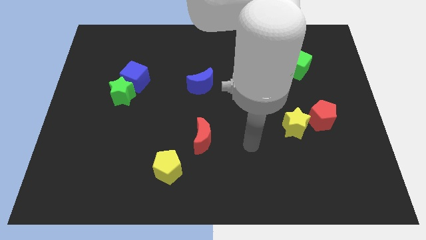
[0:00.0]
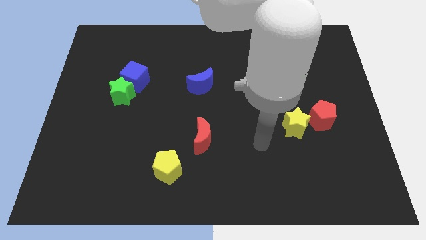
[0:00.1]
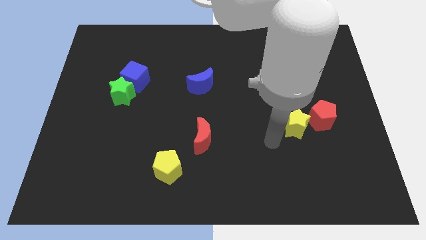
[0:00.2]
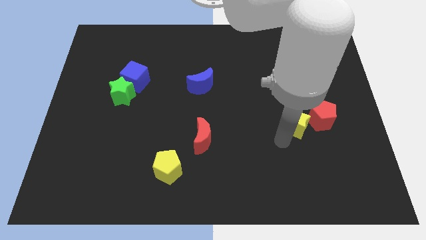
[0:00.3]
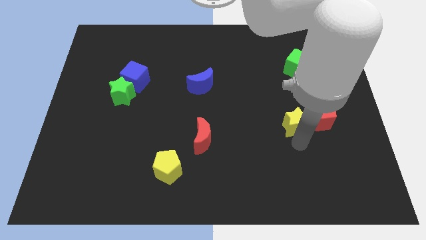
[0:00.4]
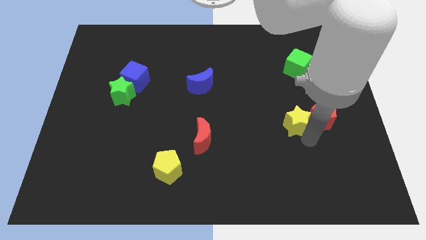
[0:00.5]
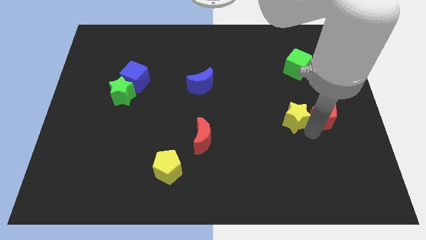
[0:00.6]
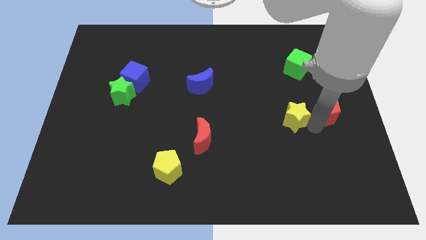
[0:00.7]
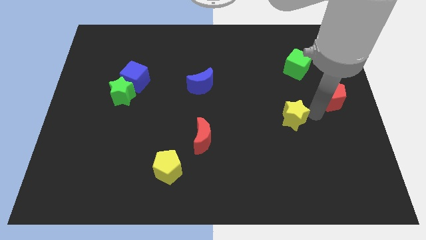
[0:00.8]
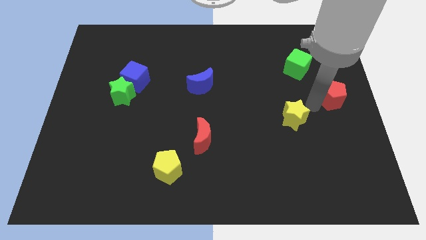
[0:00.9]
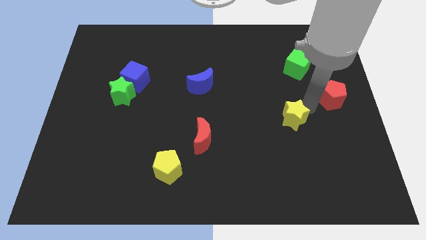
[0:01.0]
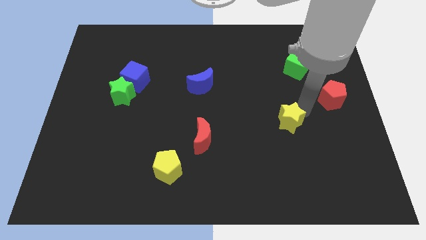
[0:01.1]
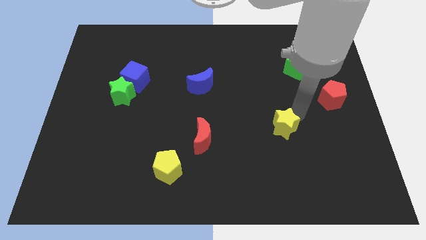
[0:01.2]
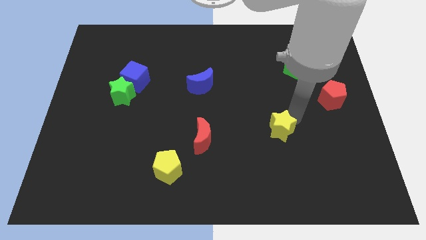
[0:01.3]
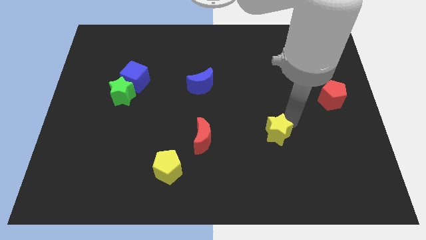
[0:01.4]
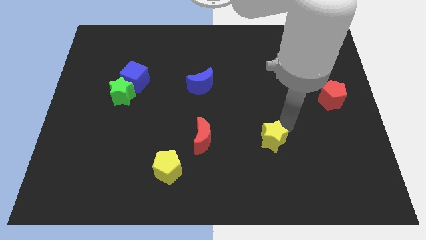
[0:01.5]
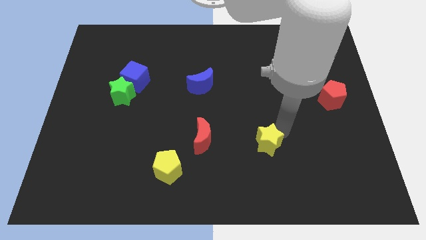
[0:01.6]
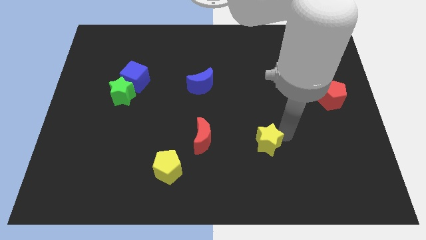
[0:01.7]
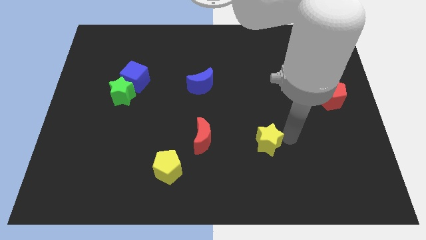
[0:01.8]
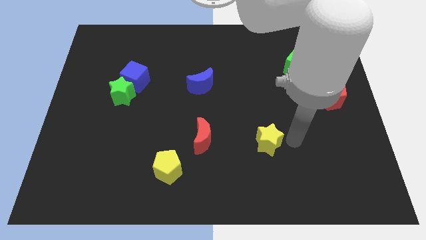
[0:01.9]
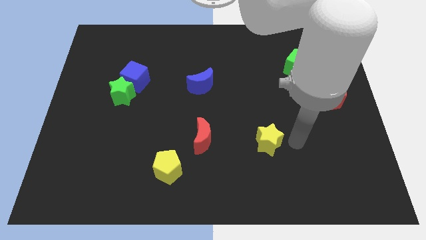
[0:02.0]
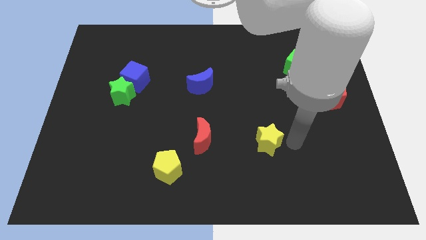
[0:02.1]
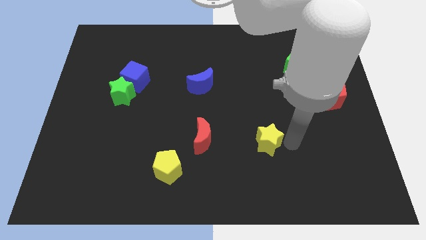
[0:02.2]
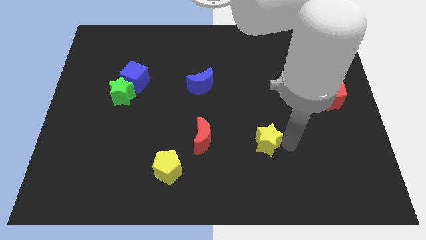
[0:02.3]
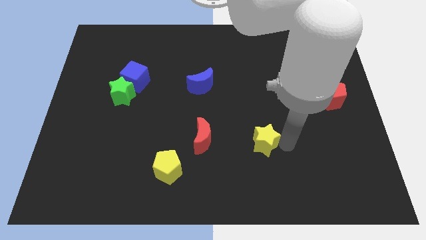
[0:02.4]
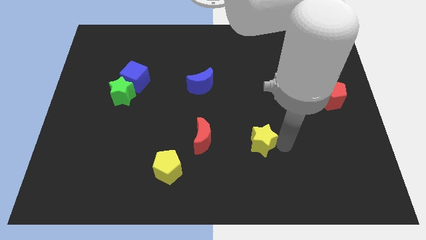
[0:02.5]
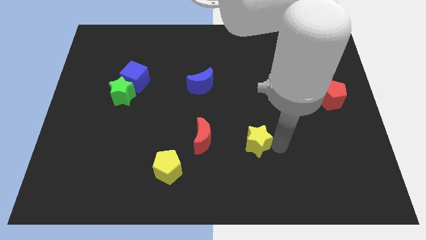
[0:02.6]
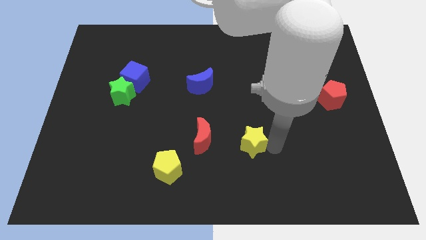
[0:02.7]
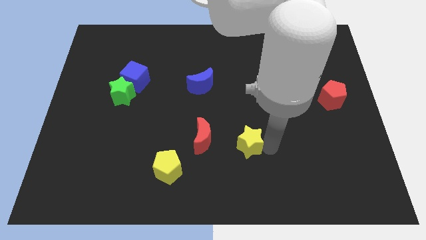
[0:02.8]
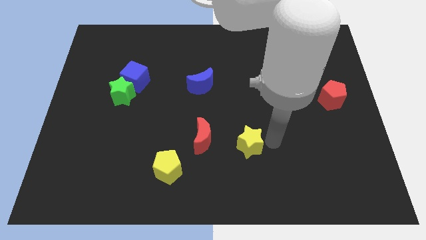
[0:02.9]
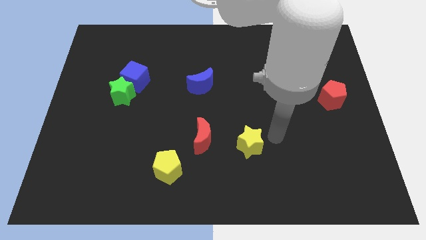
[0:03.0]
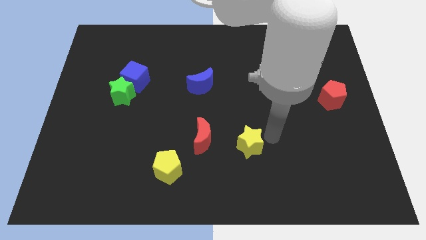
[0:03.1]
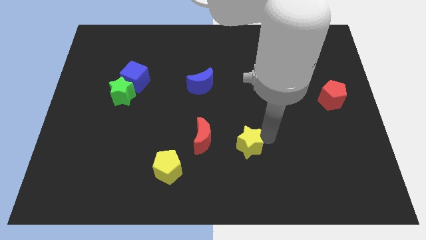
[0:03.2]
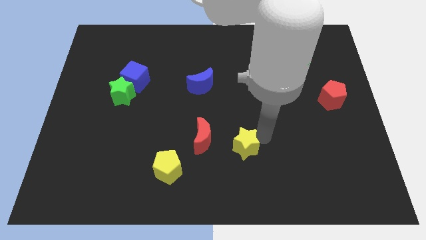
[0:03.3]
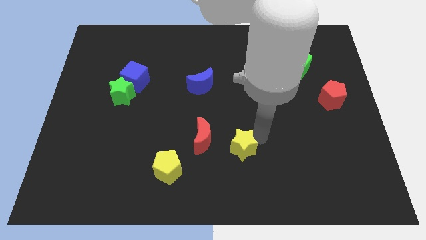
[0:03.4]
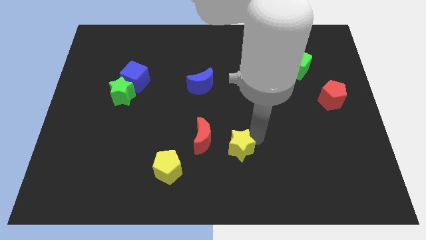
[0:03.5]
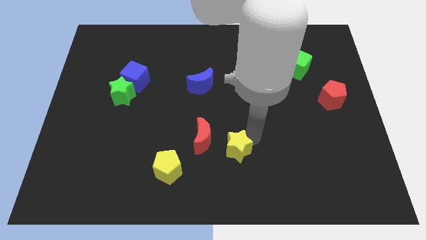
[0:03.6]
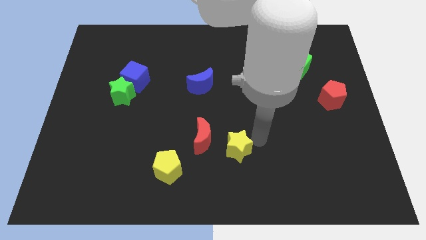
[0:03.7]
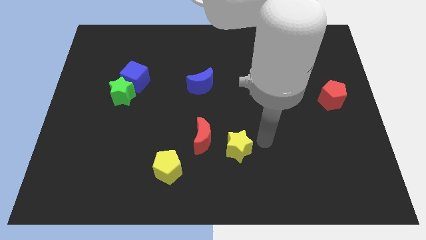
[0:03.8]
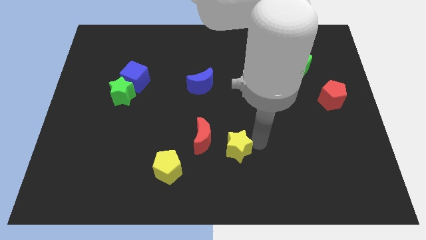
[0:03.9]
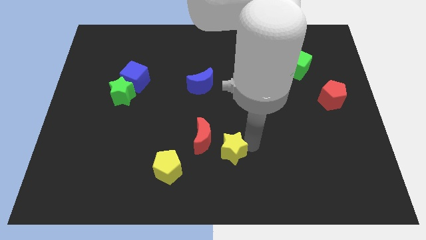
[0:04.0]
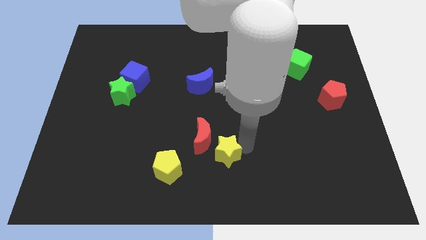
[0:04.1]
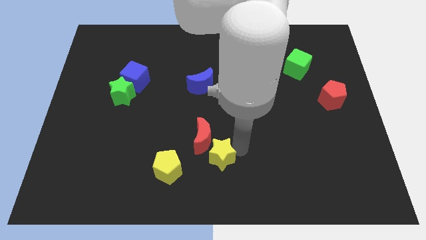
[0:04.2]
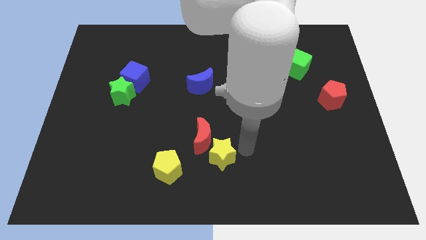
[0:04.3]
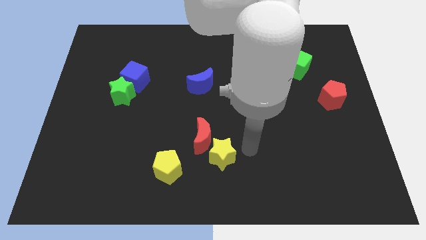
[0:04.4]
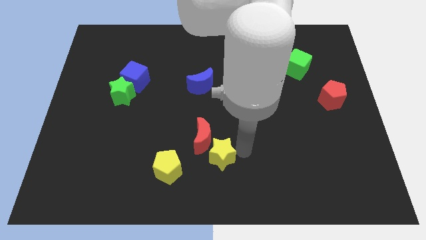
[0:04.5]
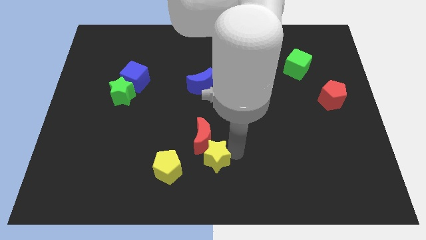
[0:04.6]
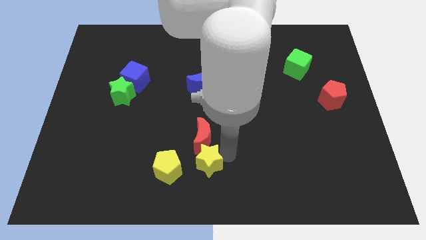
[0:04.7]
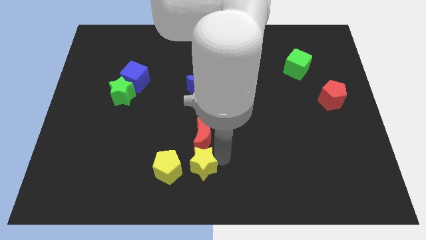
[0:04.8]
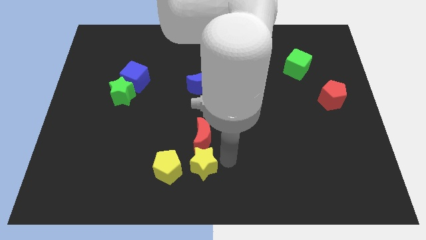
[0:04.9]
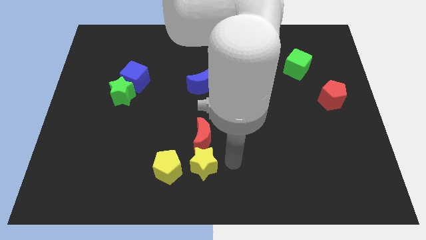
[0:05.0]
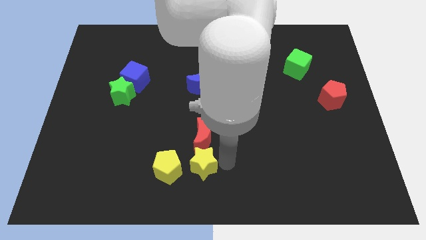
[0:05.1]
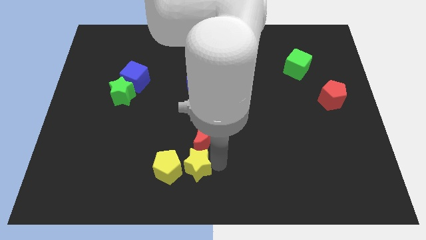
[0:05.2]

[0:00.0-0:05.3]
push the yellow star next to the yellow pentagon

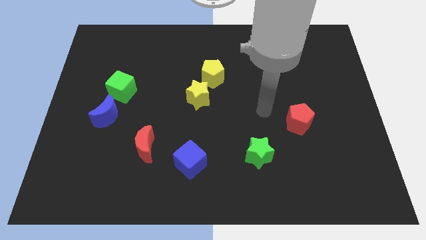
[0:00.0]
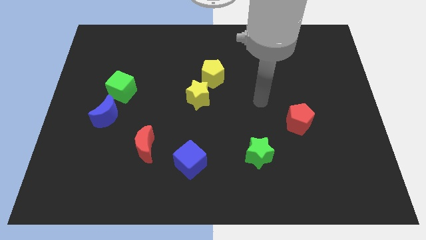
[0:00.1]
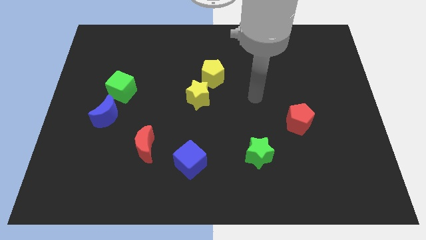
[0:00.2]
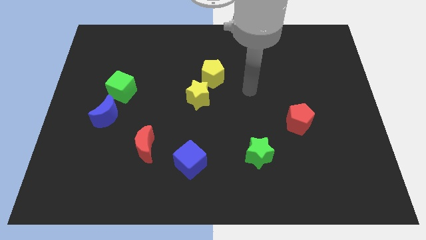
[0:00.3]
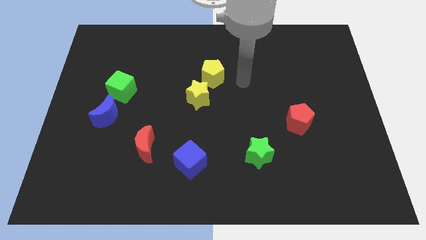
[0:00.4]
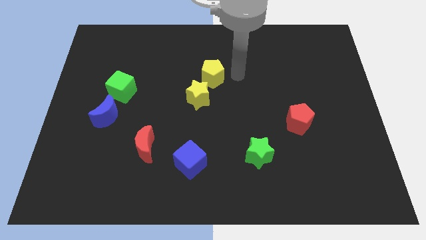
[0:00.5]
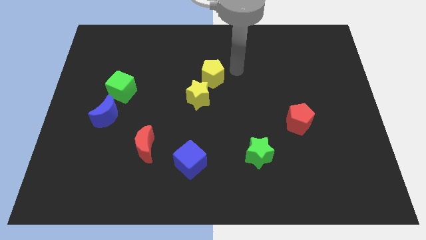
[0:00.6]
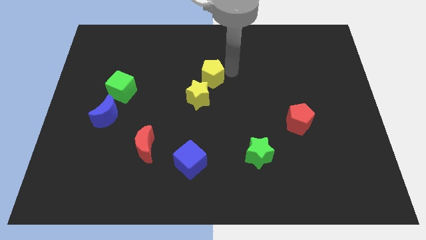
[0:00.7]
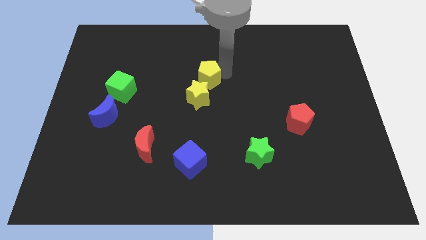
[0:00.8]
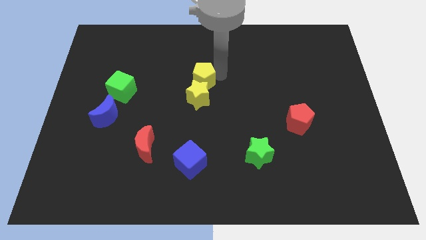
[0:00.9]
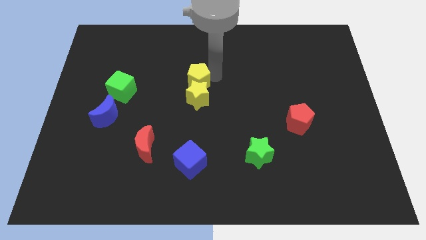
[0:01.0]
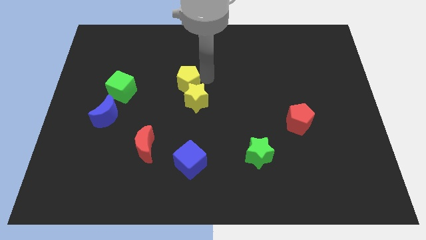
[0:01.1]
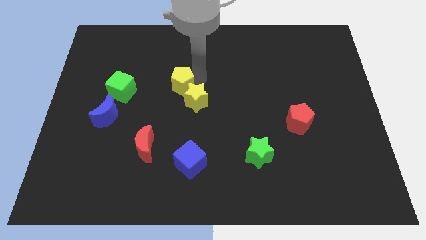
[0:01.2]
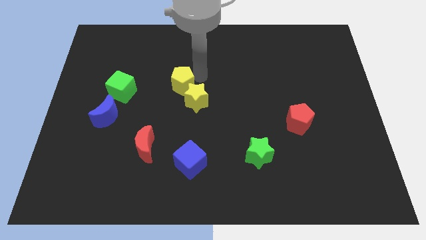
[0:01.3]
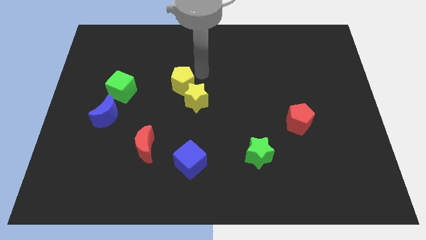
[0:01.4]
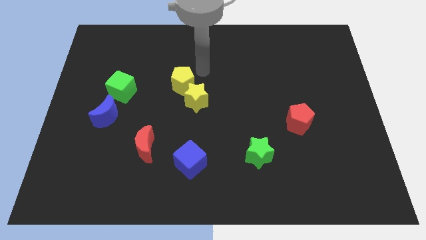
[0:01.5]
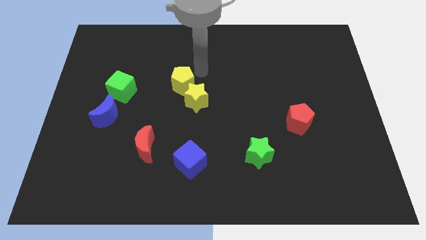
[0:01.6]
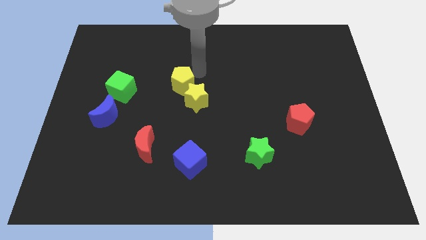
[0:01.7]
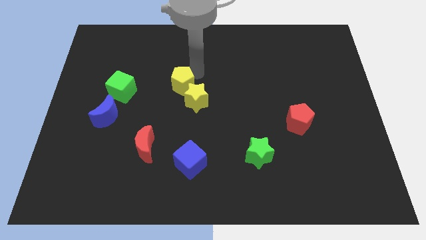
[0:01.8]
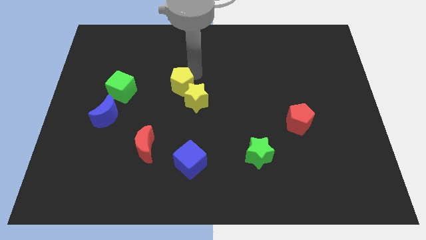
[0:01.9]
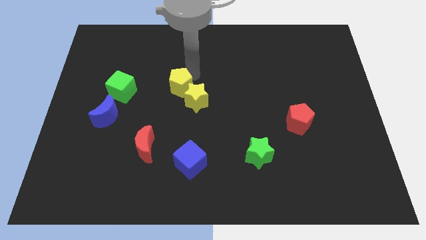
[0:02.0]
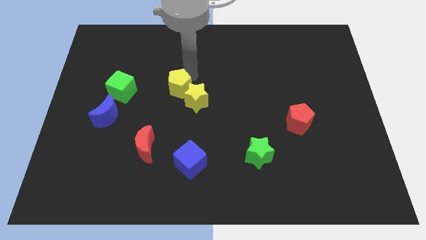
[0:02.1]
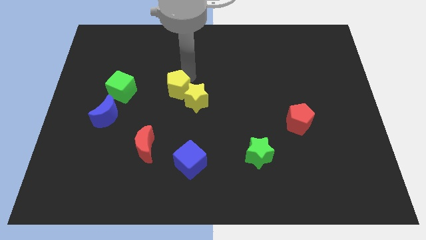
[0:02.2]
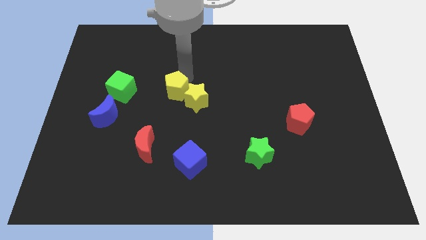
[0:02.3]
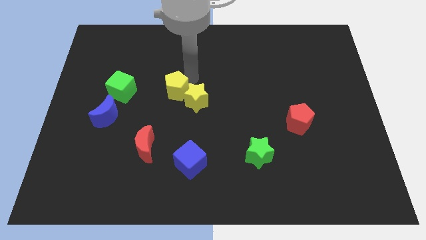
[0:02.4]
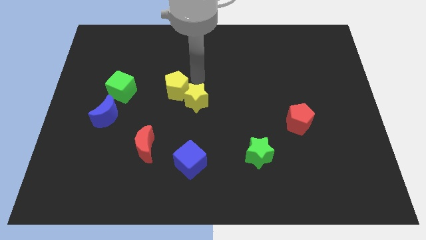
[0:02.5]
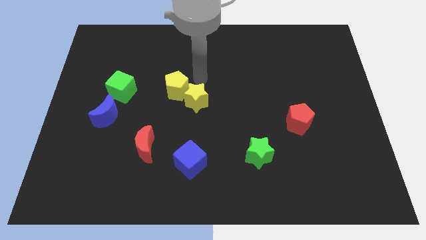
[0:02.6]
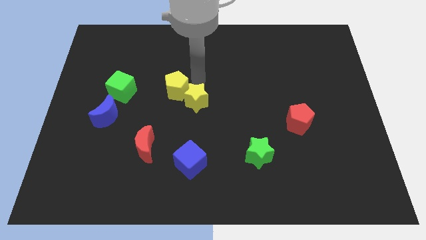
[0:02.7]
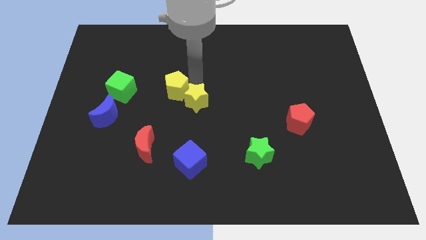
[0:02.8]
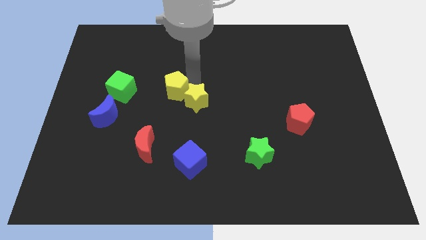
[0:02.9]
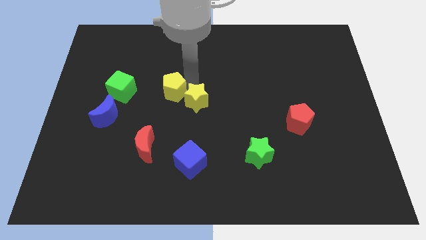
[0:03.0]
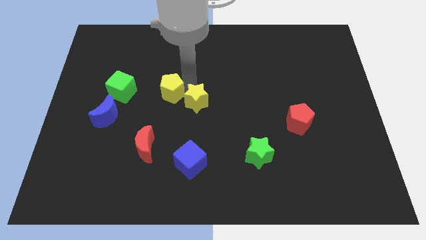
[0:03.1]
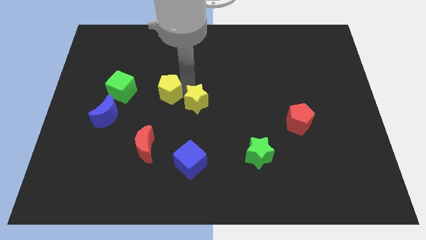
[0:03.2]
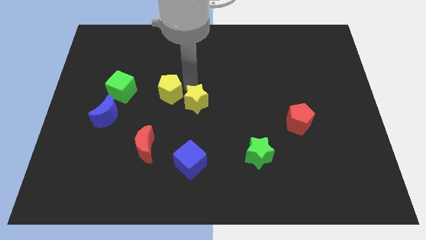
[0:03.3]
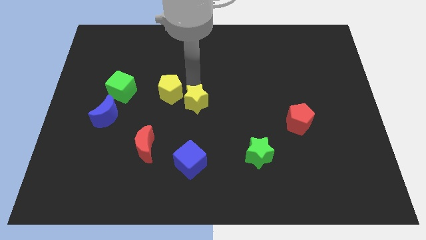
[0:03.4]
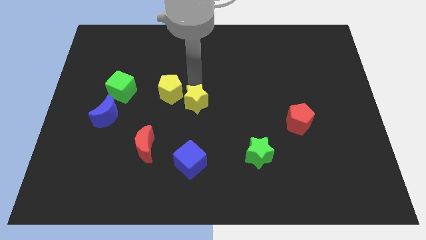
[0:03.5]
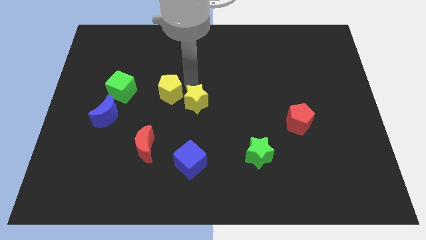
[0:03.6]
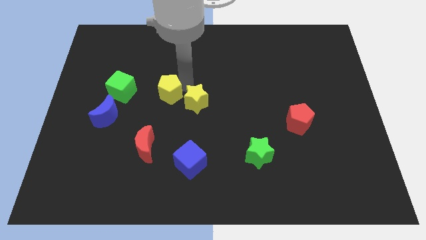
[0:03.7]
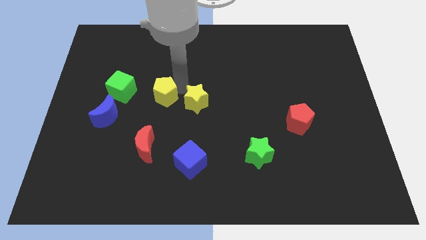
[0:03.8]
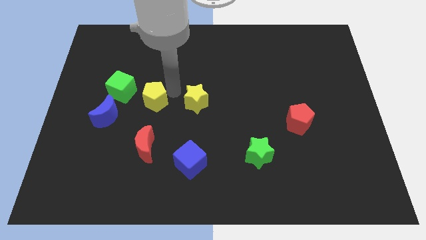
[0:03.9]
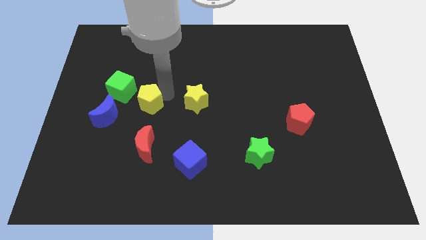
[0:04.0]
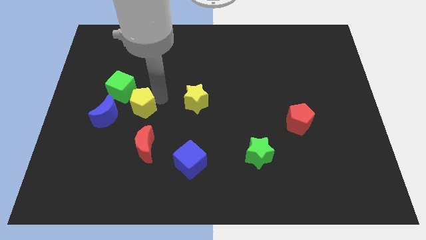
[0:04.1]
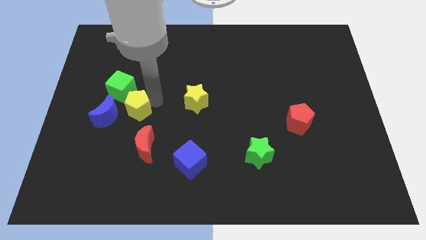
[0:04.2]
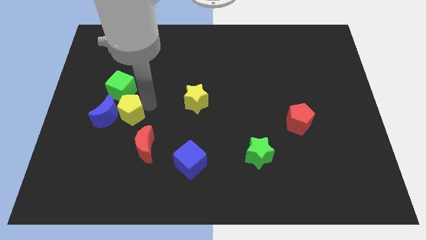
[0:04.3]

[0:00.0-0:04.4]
move the yellow pentagon to the blue moon
